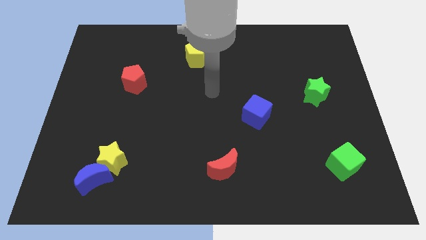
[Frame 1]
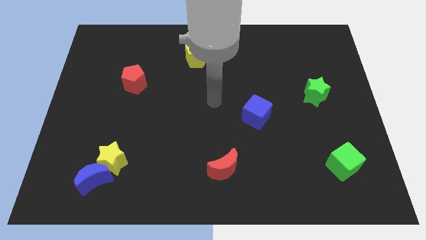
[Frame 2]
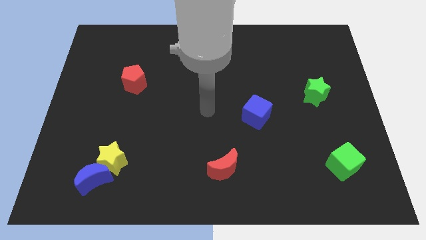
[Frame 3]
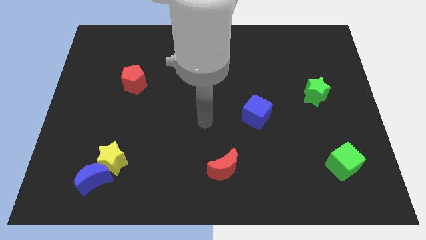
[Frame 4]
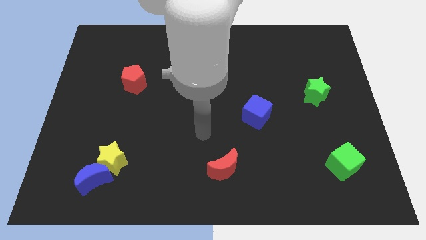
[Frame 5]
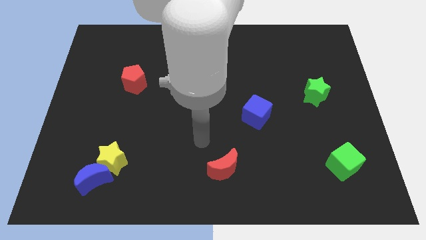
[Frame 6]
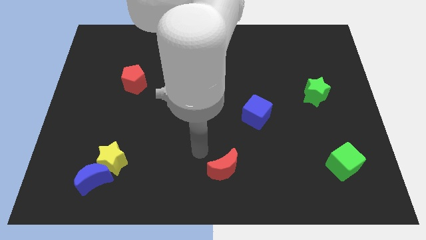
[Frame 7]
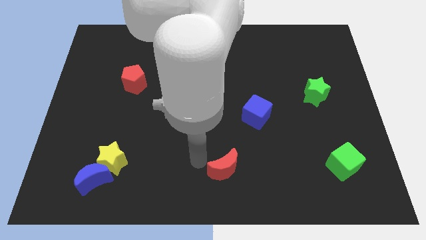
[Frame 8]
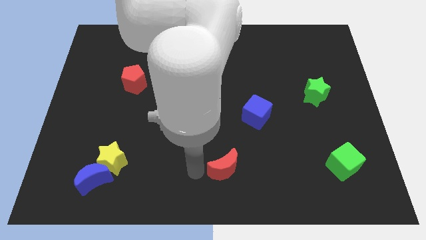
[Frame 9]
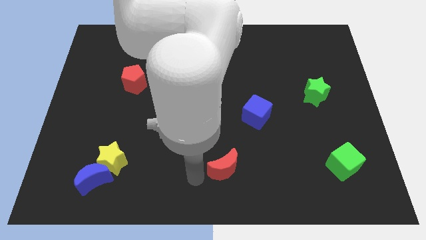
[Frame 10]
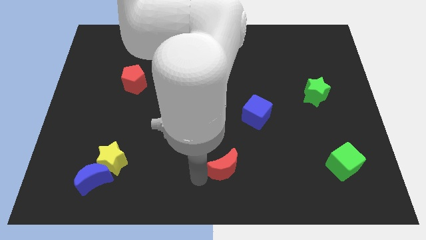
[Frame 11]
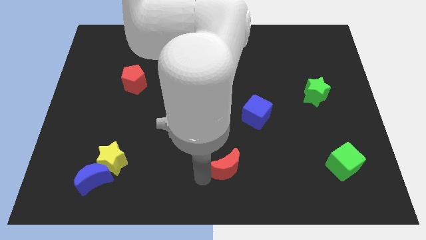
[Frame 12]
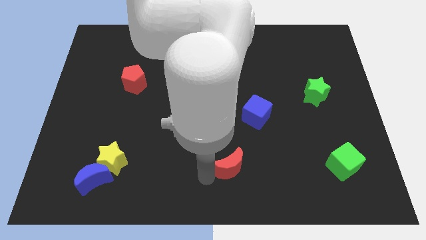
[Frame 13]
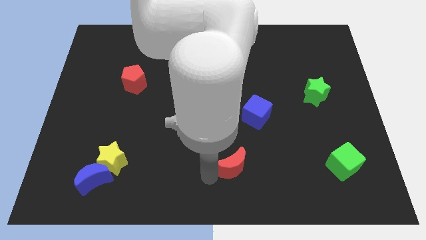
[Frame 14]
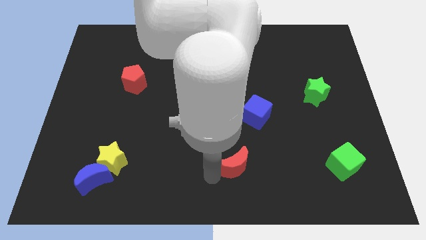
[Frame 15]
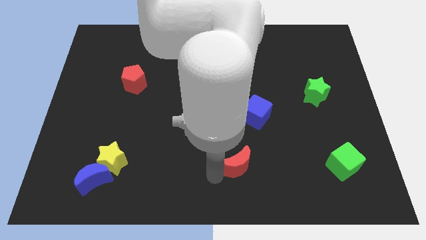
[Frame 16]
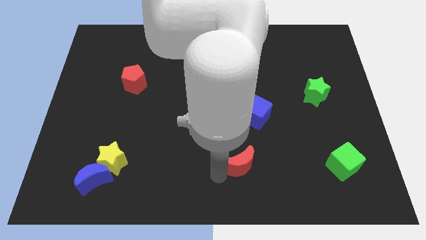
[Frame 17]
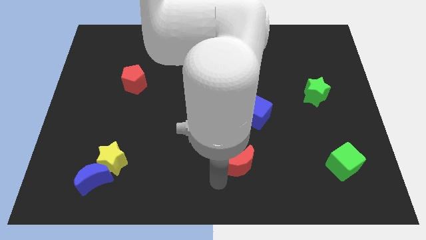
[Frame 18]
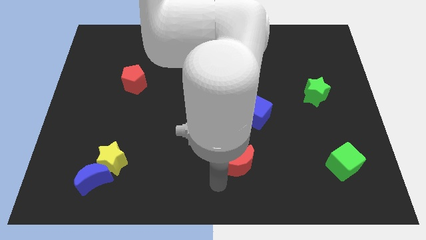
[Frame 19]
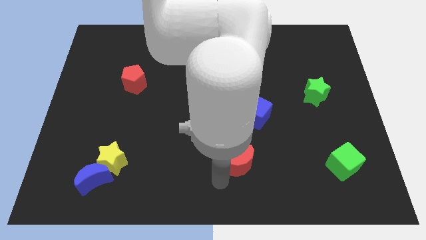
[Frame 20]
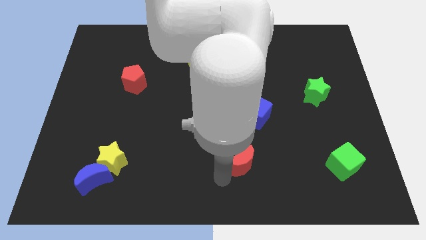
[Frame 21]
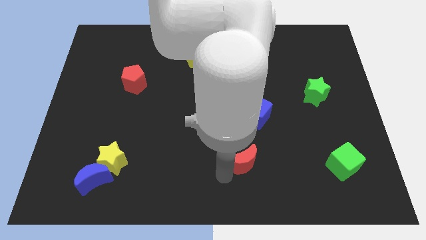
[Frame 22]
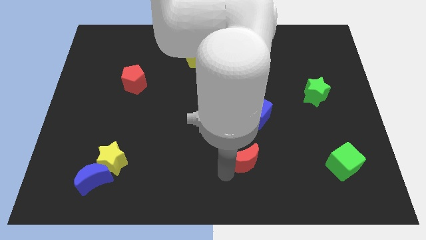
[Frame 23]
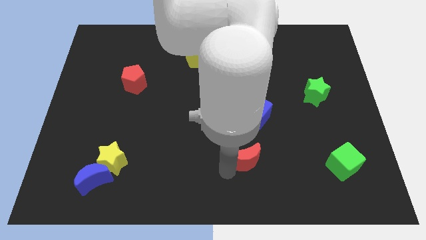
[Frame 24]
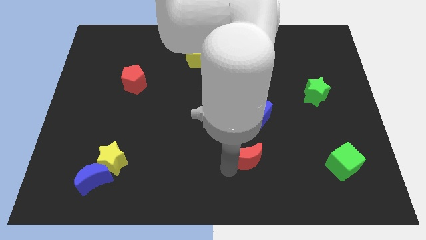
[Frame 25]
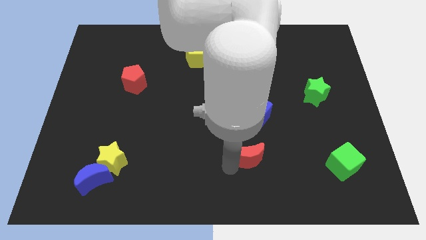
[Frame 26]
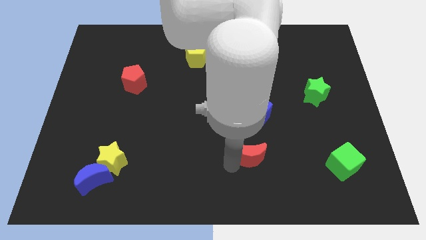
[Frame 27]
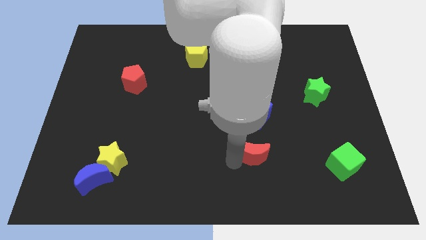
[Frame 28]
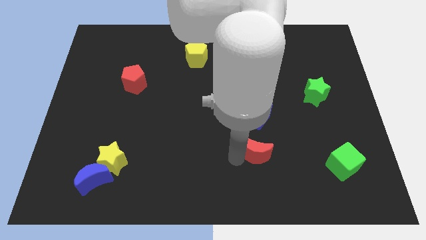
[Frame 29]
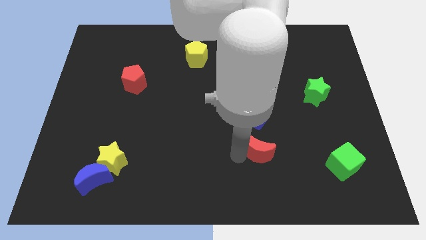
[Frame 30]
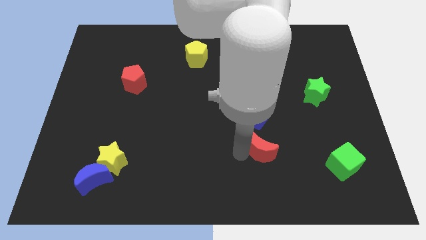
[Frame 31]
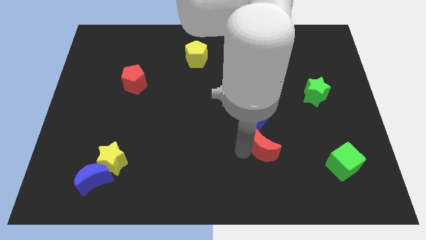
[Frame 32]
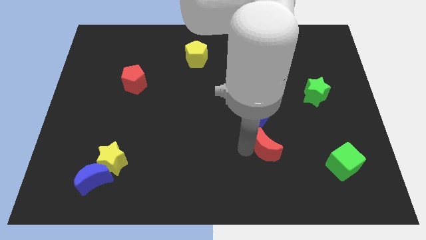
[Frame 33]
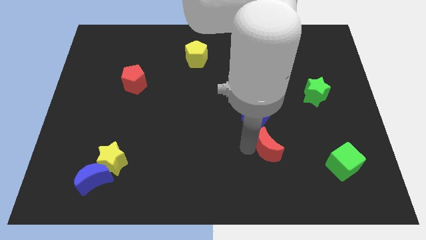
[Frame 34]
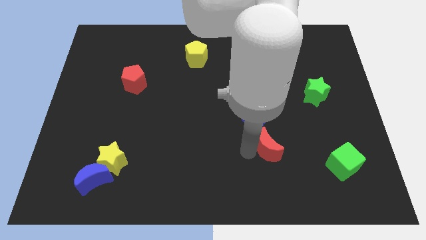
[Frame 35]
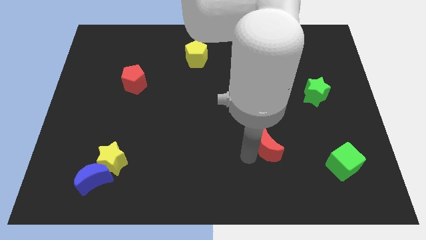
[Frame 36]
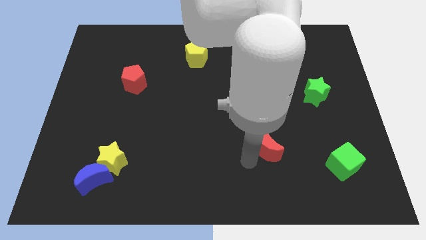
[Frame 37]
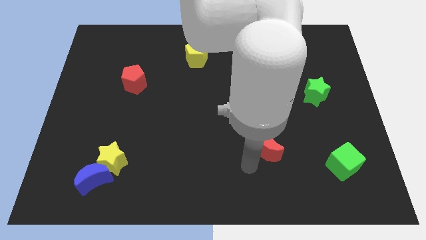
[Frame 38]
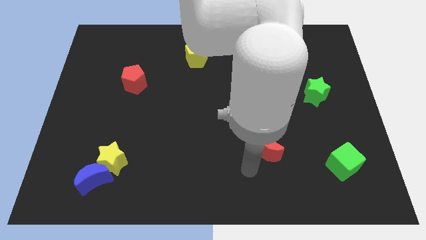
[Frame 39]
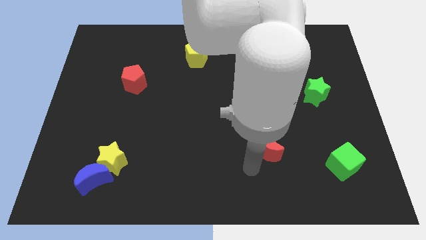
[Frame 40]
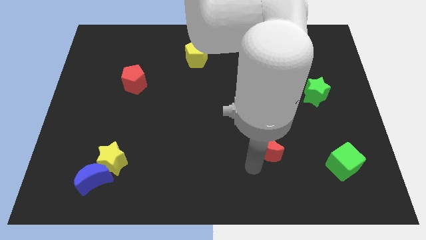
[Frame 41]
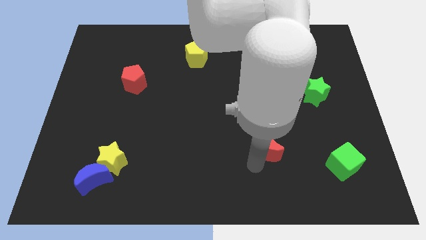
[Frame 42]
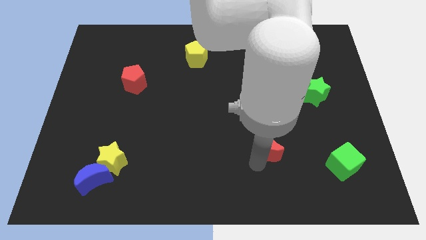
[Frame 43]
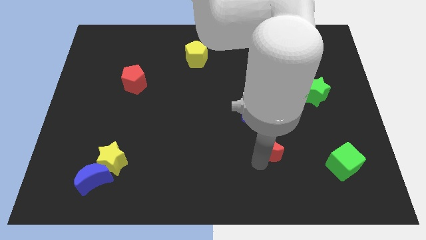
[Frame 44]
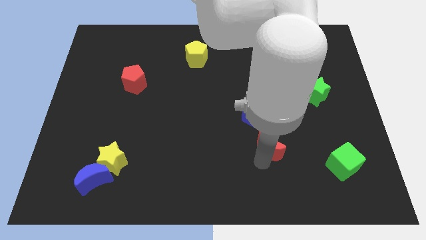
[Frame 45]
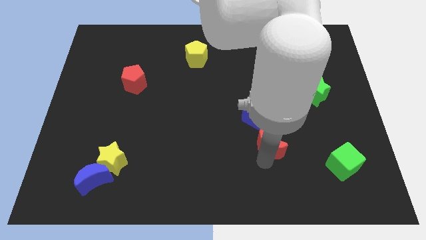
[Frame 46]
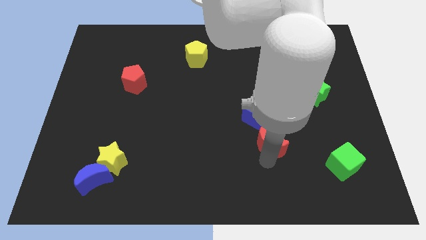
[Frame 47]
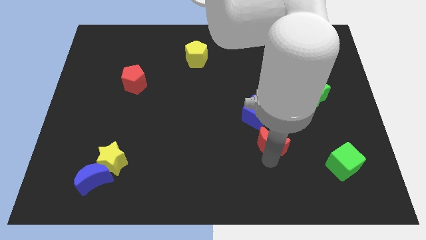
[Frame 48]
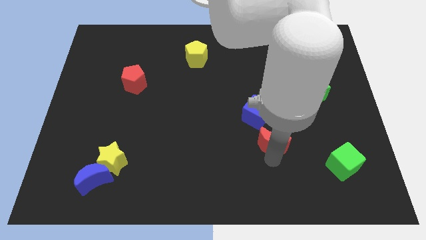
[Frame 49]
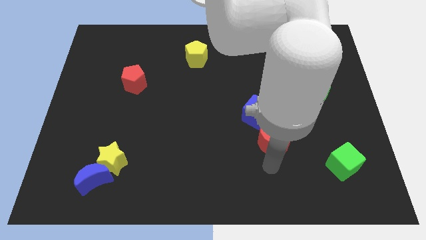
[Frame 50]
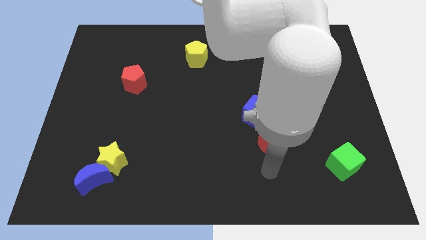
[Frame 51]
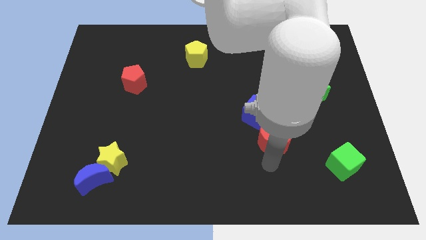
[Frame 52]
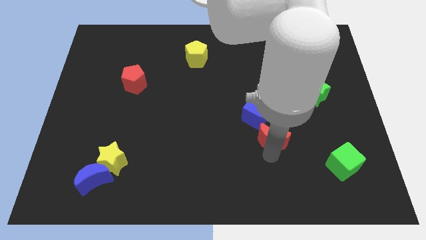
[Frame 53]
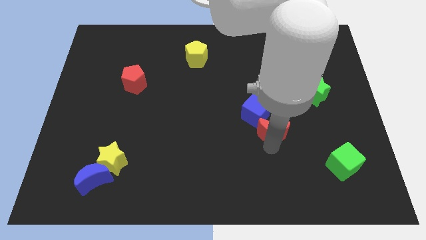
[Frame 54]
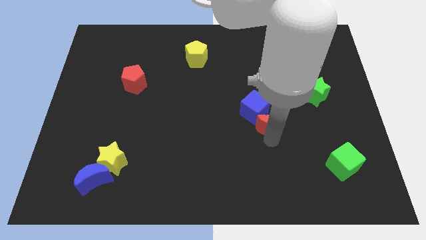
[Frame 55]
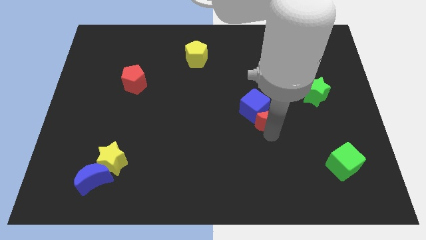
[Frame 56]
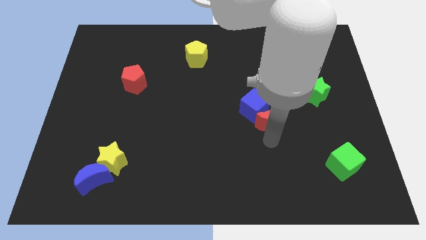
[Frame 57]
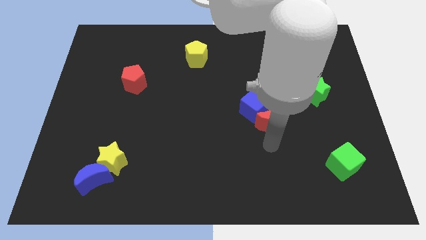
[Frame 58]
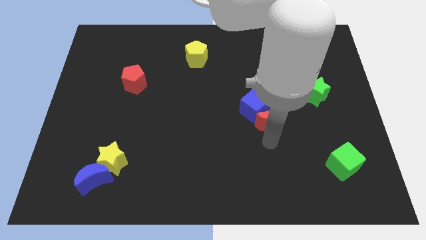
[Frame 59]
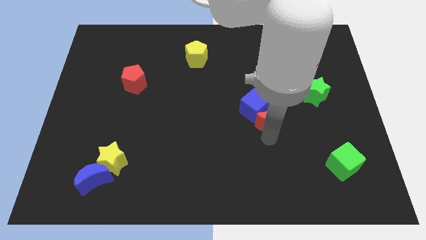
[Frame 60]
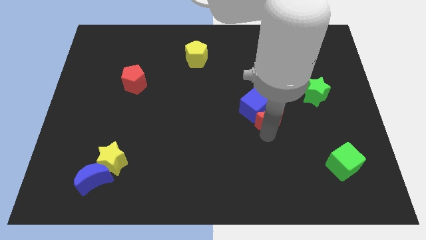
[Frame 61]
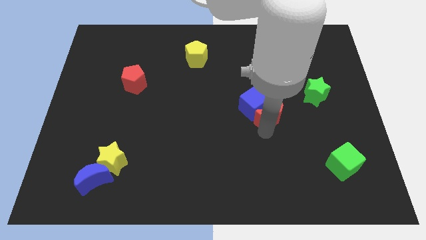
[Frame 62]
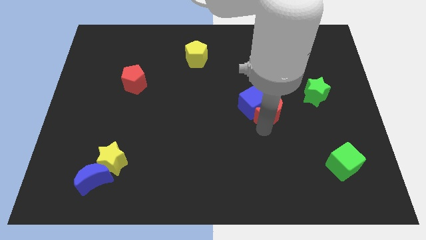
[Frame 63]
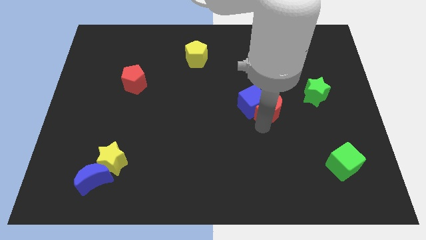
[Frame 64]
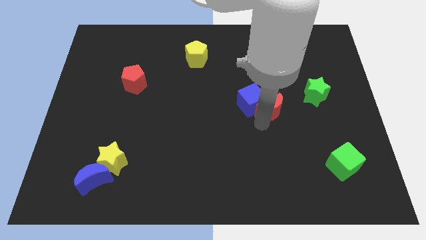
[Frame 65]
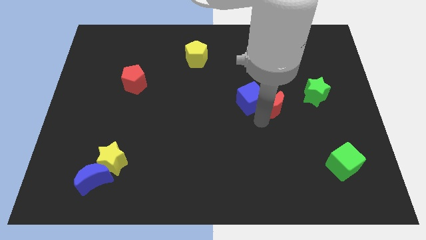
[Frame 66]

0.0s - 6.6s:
put the red moon just left of the green star
